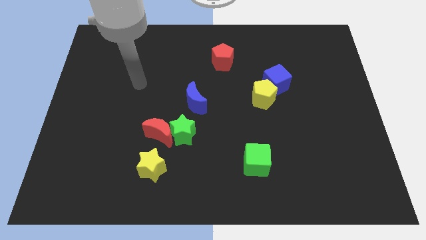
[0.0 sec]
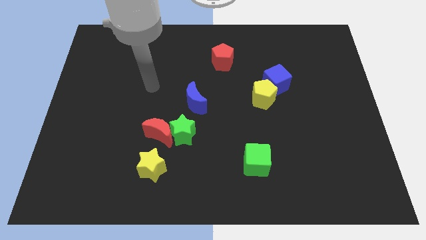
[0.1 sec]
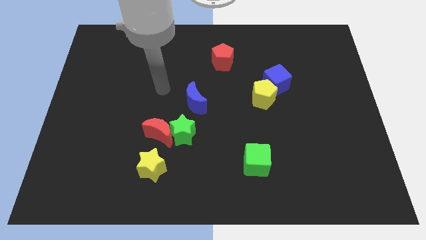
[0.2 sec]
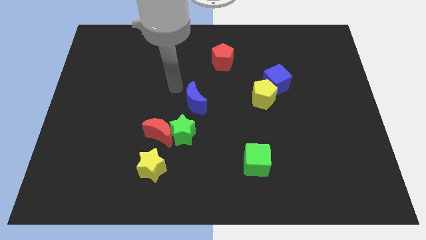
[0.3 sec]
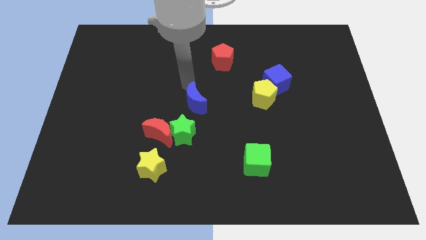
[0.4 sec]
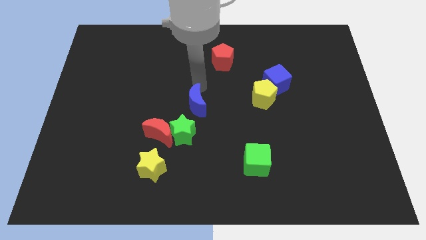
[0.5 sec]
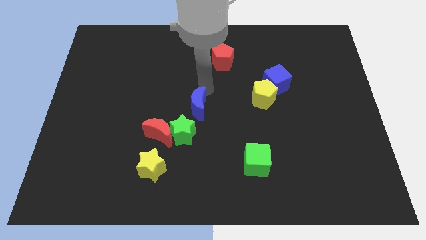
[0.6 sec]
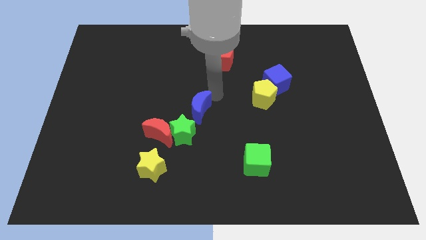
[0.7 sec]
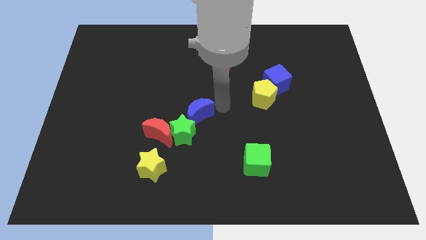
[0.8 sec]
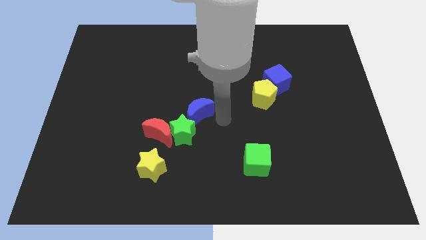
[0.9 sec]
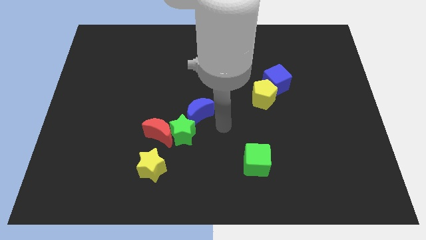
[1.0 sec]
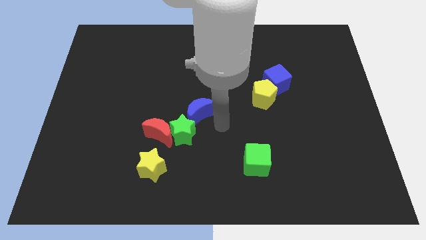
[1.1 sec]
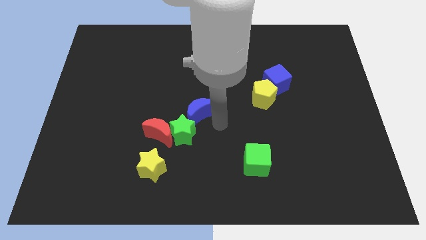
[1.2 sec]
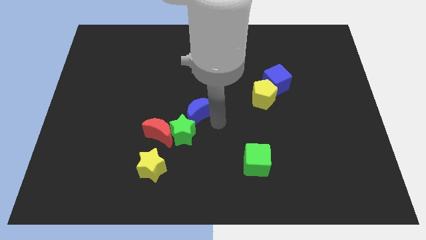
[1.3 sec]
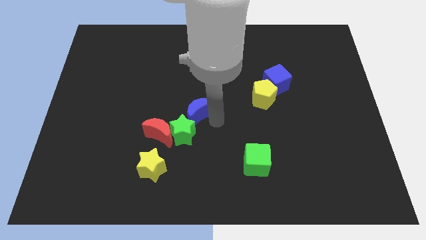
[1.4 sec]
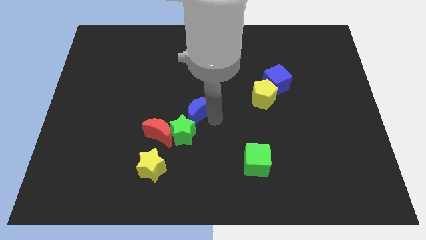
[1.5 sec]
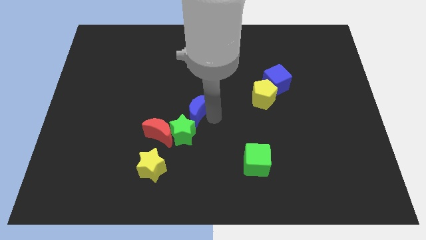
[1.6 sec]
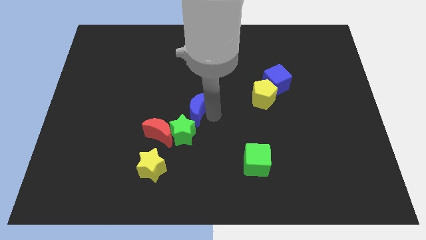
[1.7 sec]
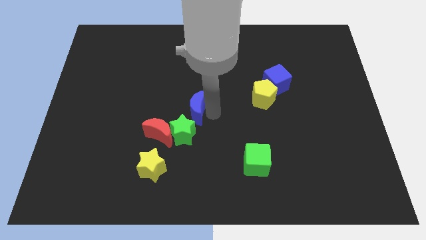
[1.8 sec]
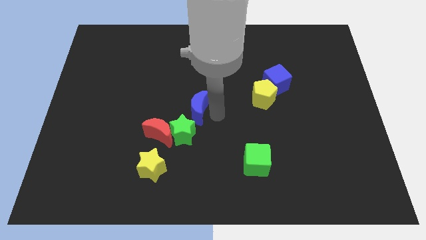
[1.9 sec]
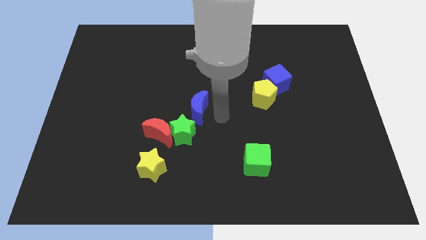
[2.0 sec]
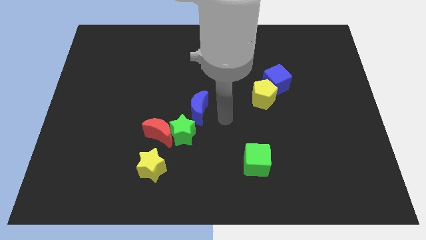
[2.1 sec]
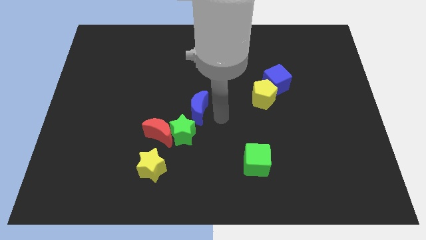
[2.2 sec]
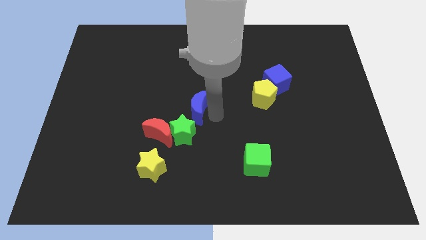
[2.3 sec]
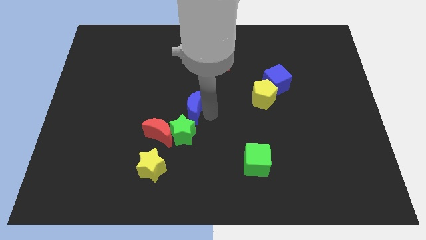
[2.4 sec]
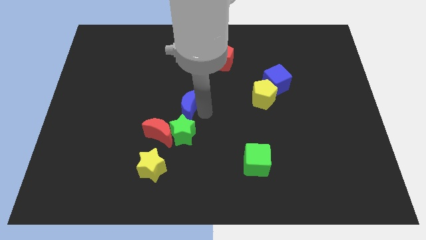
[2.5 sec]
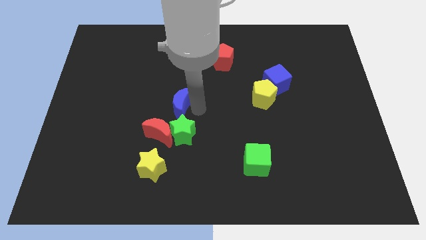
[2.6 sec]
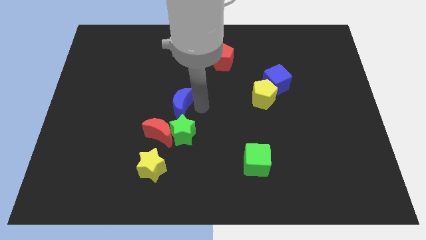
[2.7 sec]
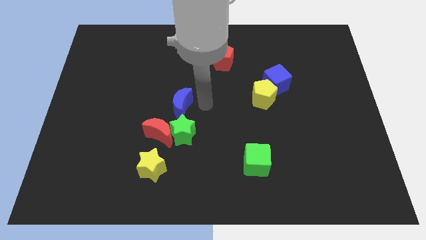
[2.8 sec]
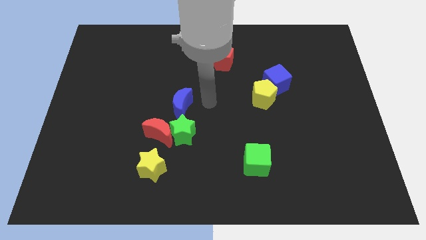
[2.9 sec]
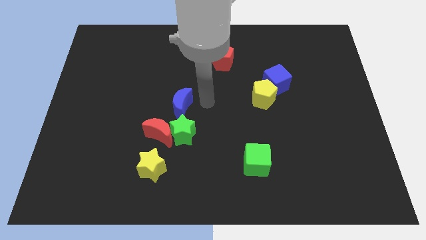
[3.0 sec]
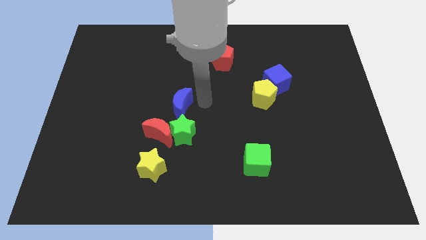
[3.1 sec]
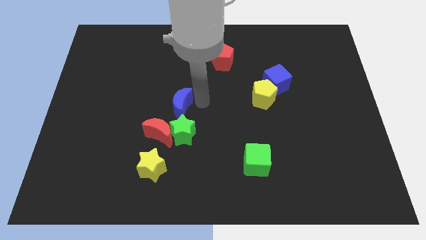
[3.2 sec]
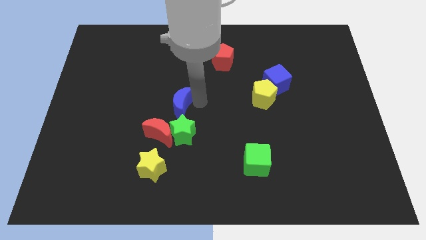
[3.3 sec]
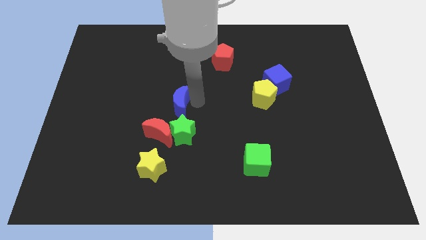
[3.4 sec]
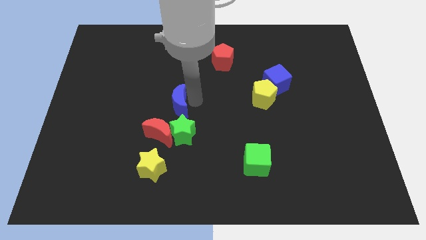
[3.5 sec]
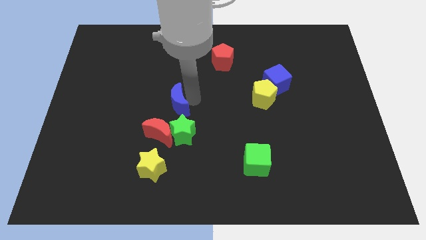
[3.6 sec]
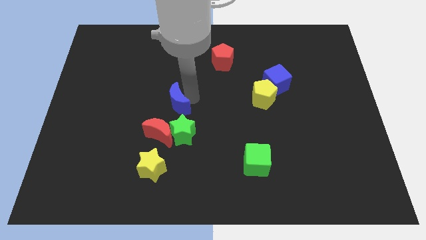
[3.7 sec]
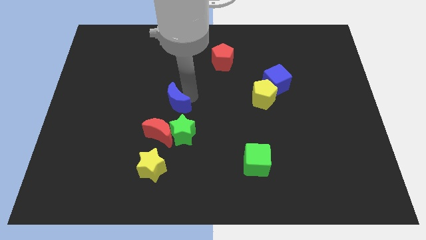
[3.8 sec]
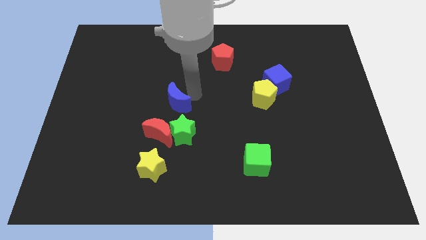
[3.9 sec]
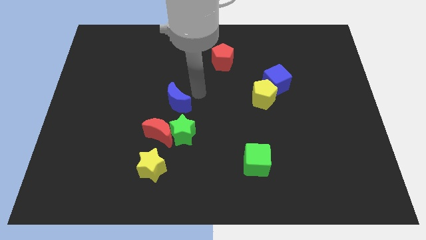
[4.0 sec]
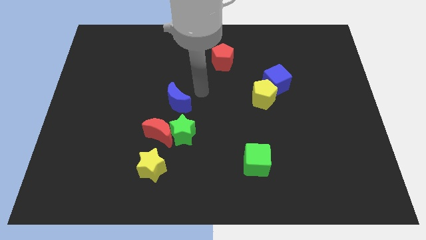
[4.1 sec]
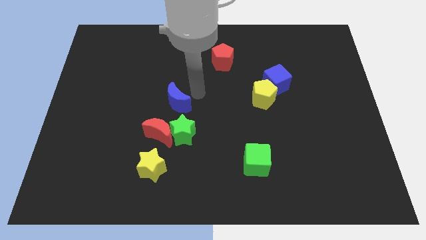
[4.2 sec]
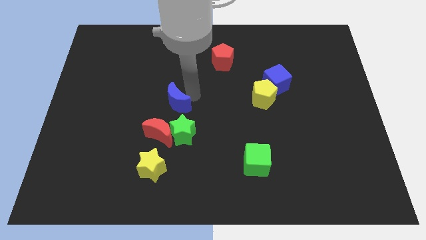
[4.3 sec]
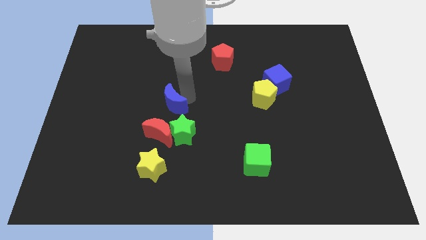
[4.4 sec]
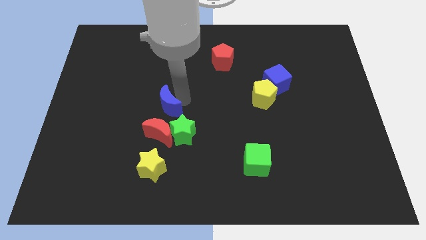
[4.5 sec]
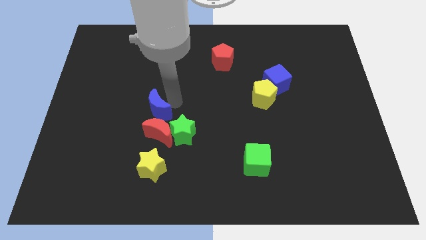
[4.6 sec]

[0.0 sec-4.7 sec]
slightly push the blue moon downwards and left diagonally

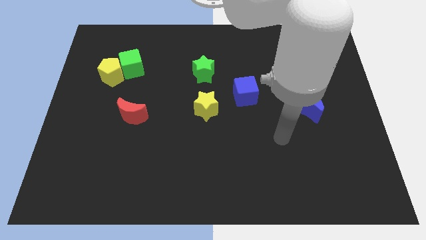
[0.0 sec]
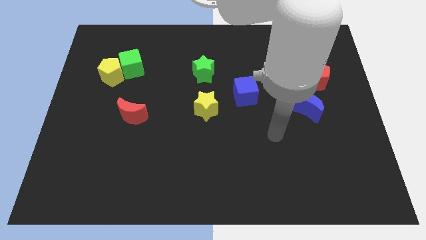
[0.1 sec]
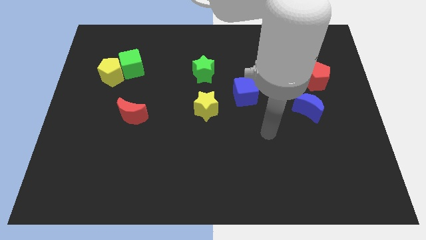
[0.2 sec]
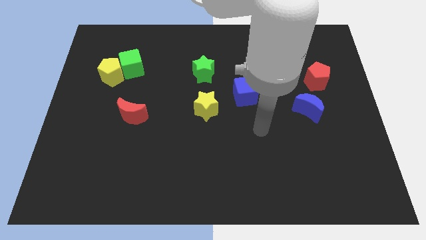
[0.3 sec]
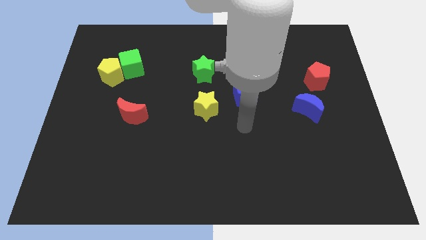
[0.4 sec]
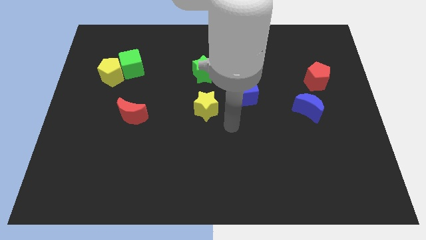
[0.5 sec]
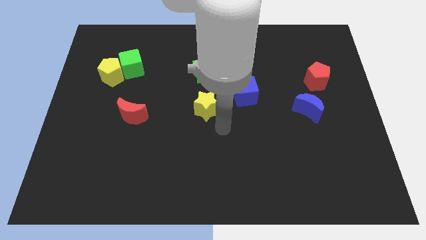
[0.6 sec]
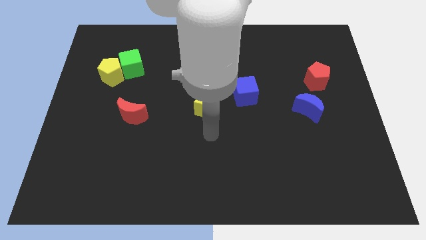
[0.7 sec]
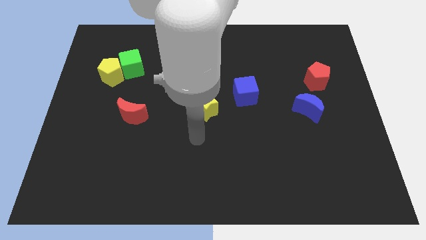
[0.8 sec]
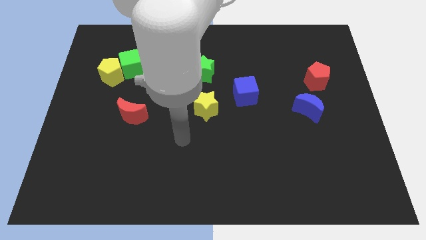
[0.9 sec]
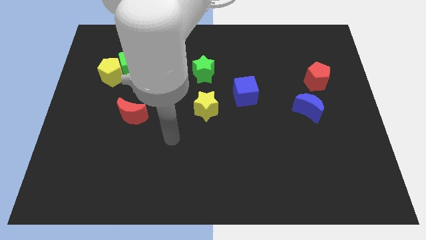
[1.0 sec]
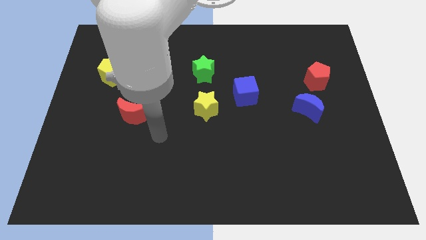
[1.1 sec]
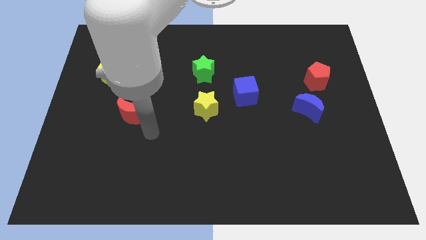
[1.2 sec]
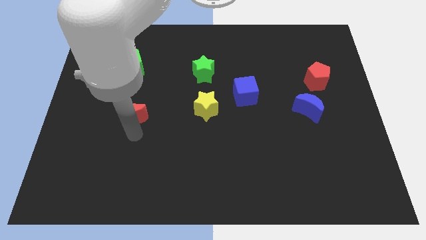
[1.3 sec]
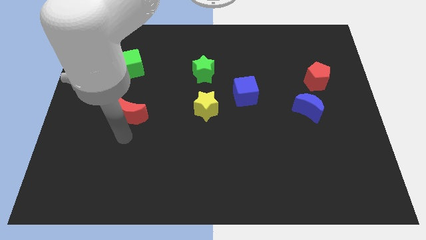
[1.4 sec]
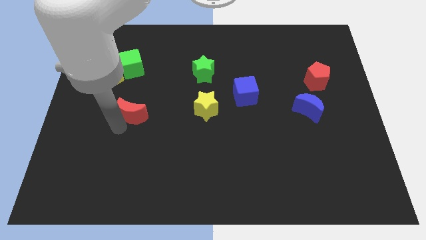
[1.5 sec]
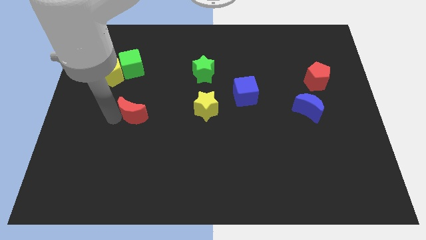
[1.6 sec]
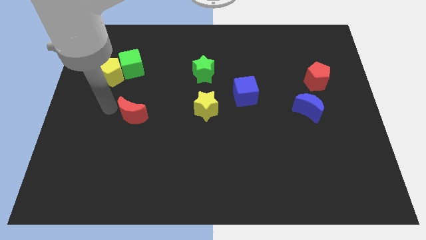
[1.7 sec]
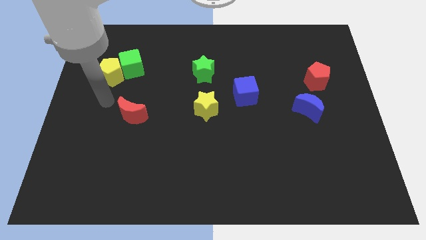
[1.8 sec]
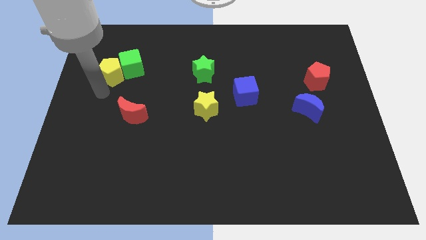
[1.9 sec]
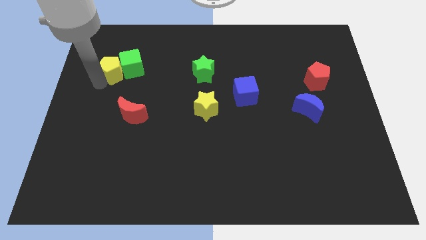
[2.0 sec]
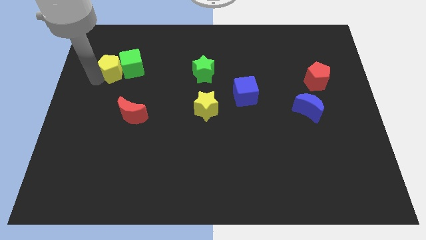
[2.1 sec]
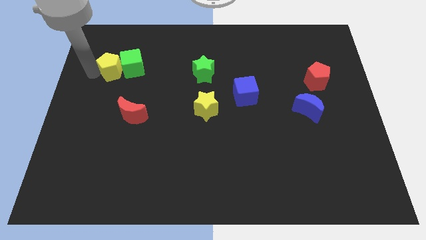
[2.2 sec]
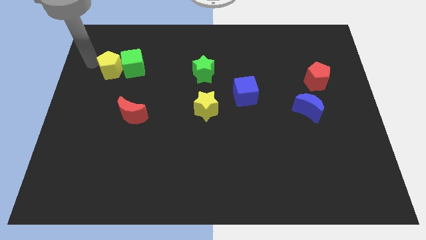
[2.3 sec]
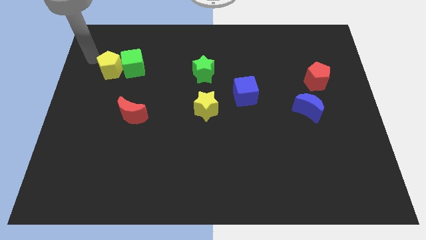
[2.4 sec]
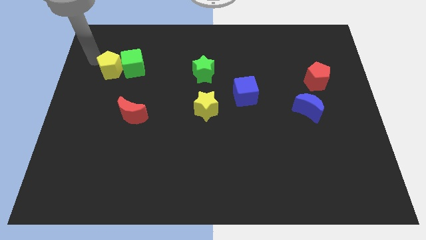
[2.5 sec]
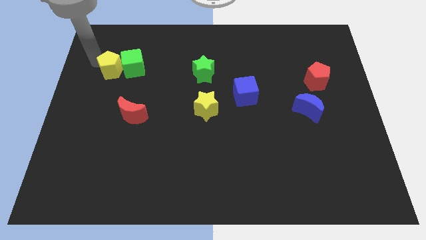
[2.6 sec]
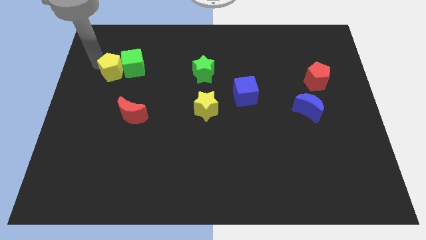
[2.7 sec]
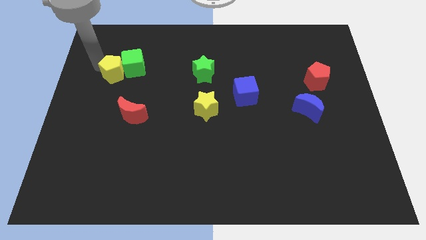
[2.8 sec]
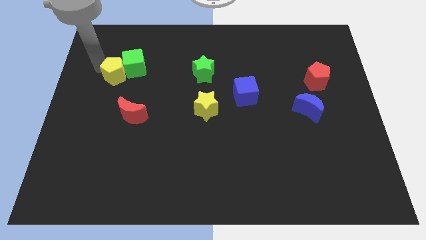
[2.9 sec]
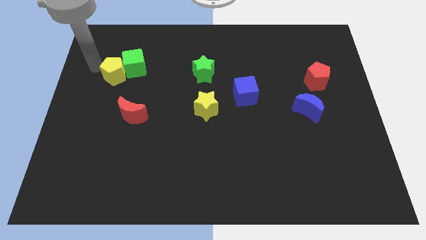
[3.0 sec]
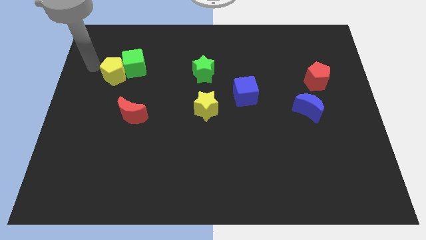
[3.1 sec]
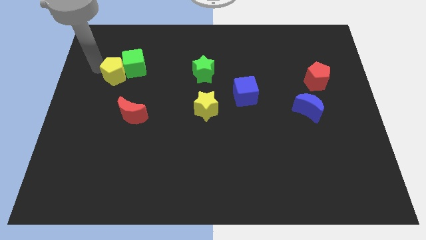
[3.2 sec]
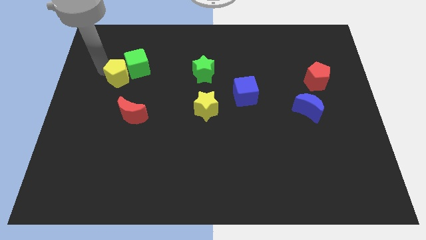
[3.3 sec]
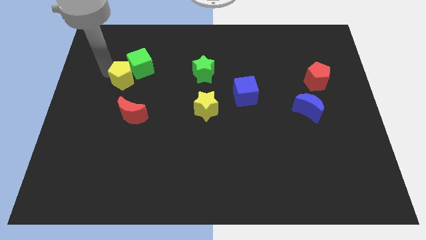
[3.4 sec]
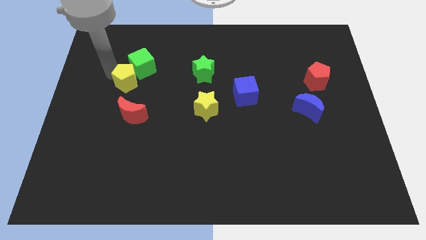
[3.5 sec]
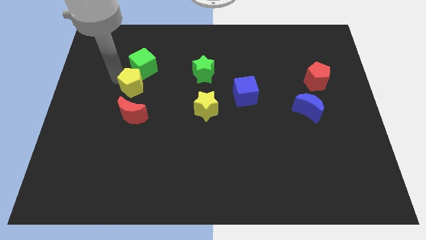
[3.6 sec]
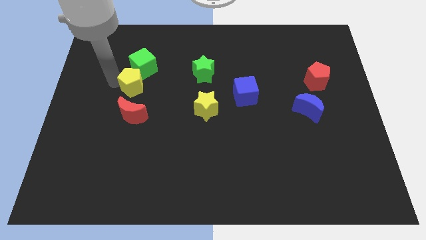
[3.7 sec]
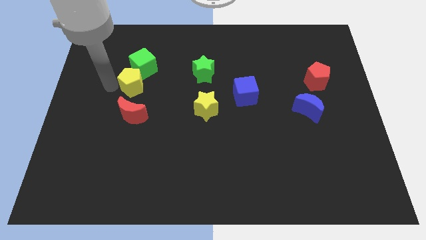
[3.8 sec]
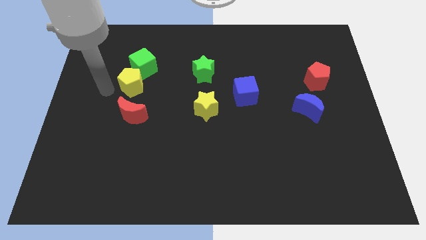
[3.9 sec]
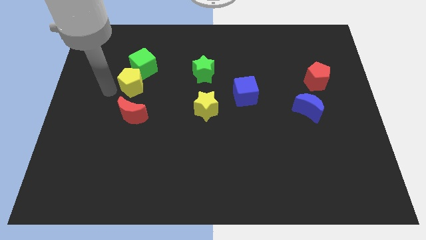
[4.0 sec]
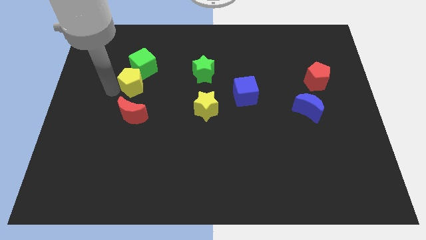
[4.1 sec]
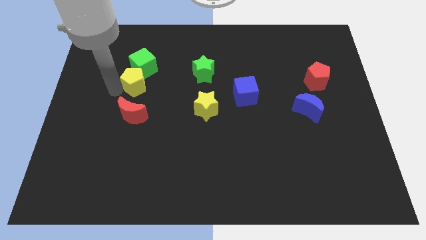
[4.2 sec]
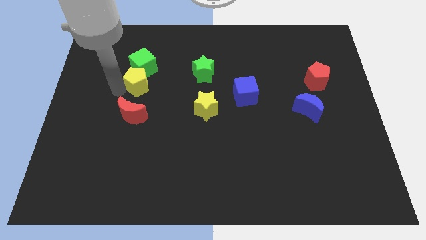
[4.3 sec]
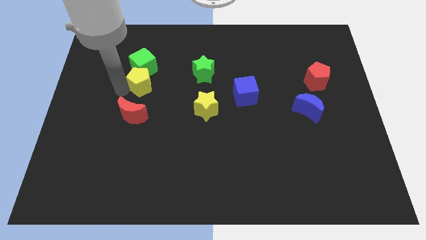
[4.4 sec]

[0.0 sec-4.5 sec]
move the yellow pentagon a little right
